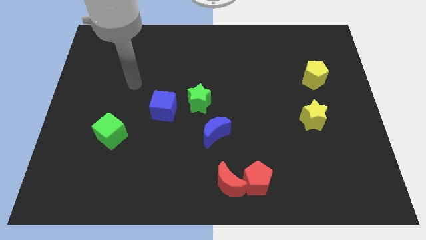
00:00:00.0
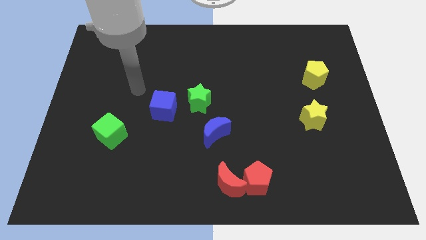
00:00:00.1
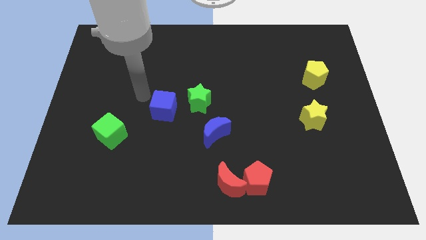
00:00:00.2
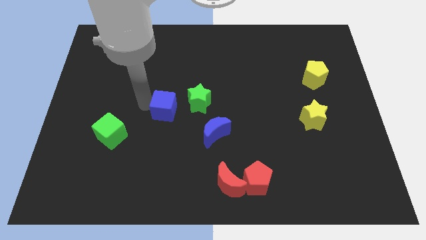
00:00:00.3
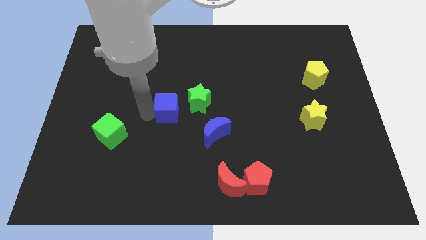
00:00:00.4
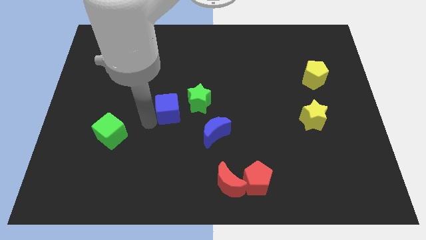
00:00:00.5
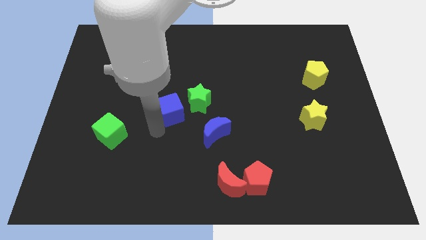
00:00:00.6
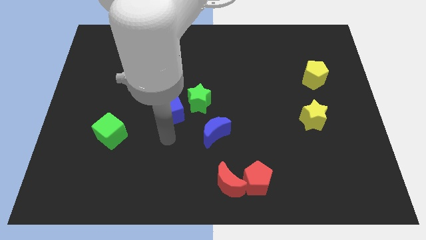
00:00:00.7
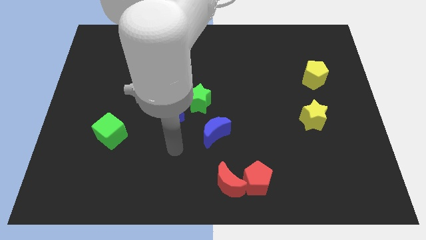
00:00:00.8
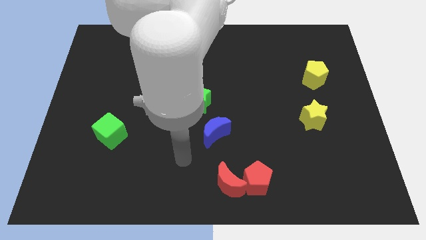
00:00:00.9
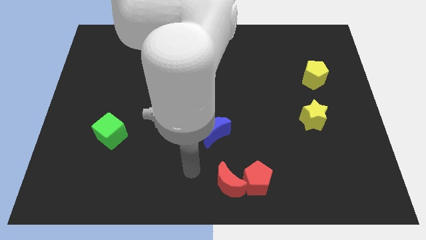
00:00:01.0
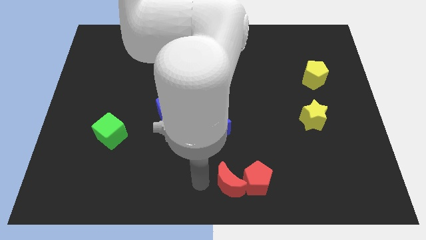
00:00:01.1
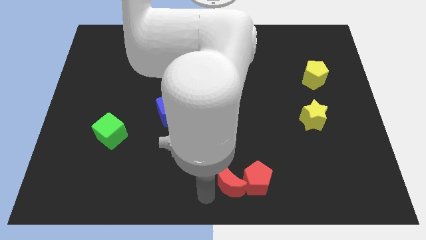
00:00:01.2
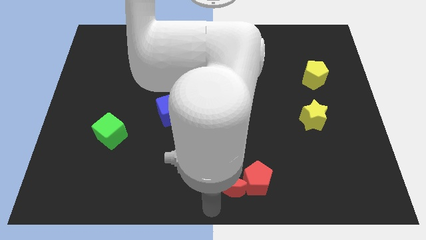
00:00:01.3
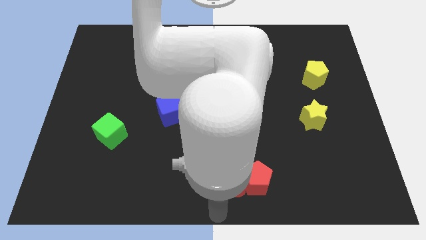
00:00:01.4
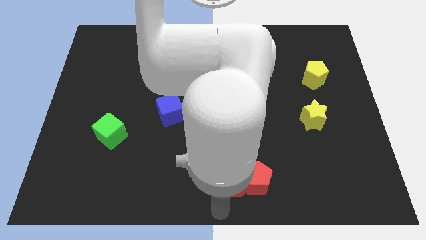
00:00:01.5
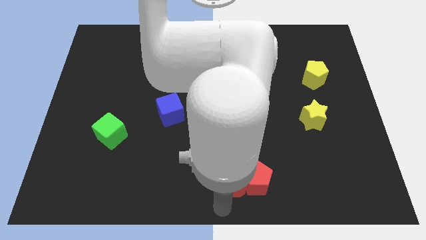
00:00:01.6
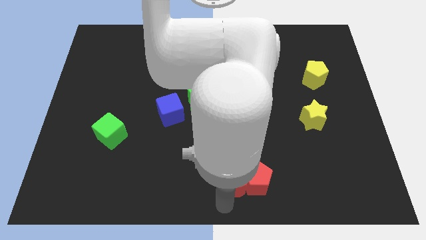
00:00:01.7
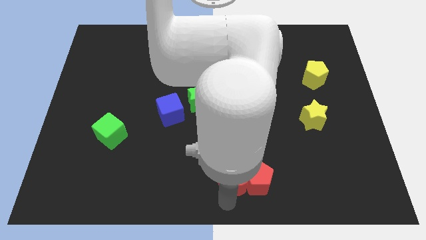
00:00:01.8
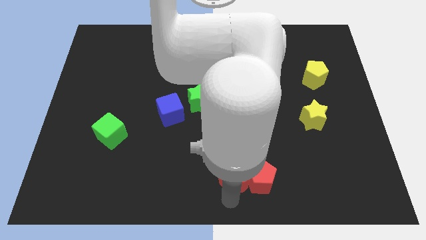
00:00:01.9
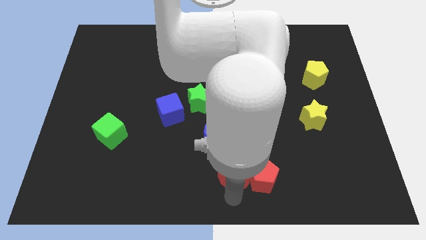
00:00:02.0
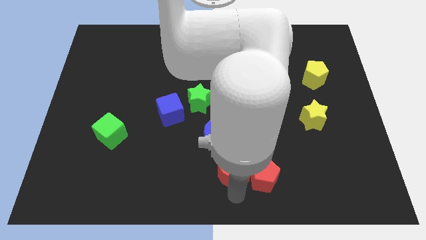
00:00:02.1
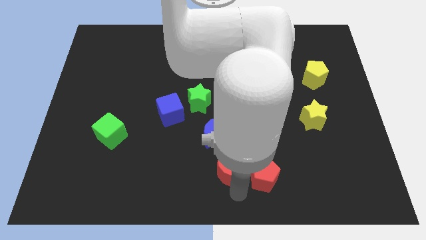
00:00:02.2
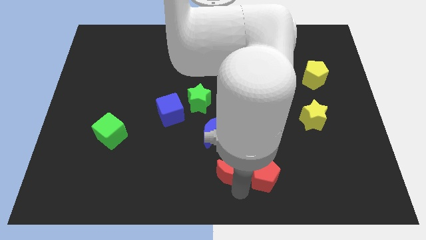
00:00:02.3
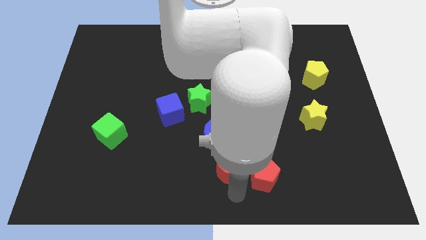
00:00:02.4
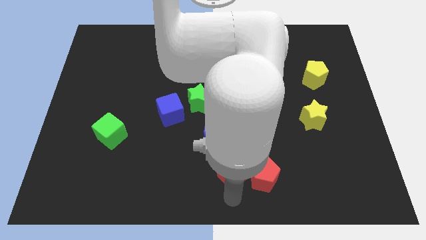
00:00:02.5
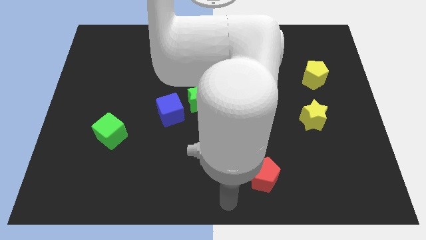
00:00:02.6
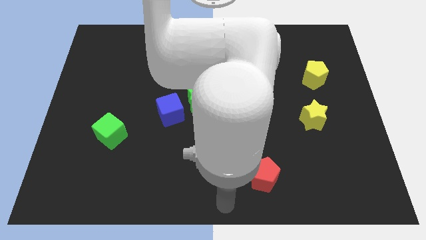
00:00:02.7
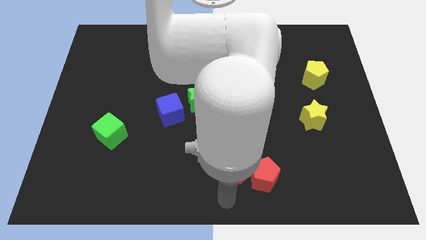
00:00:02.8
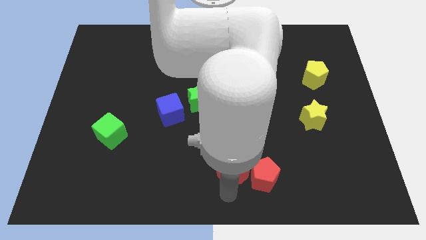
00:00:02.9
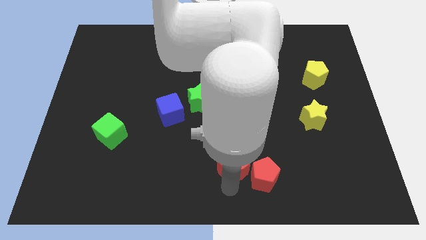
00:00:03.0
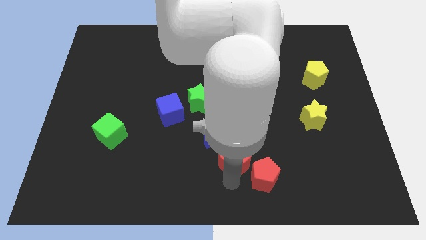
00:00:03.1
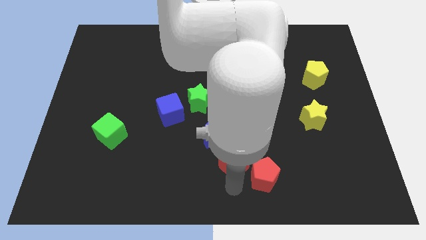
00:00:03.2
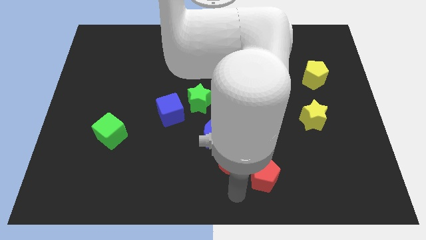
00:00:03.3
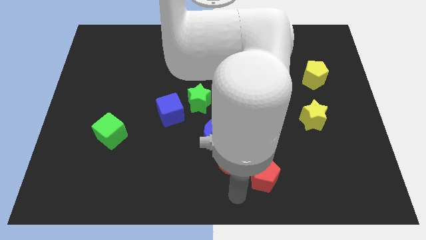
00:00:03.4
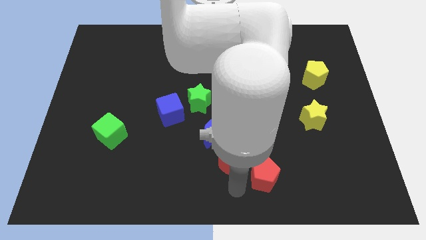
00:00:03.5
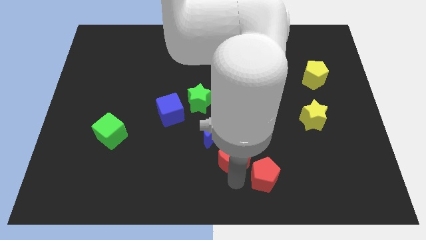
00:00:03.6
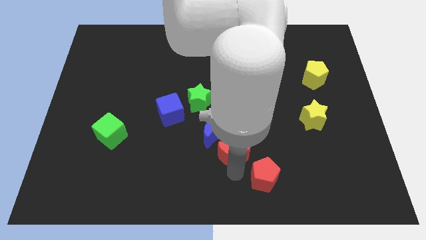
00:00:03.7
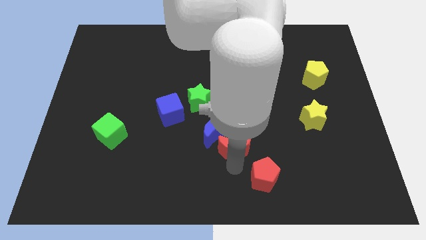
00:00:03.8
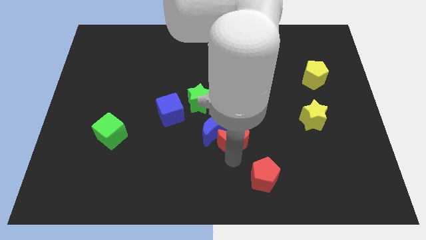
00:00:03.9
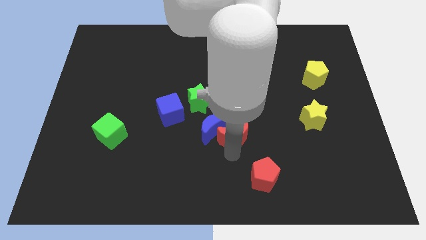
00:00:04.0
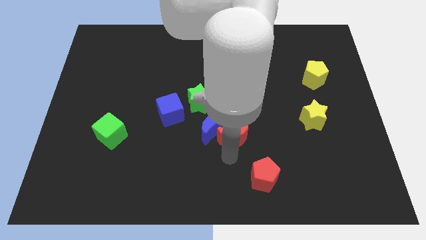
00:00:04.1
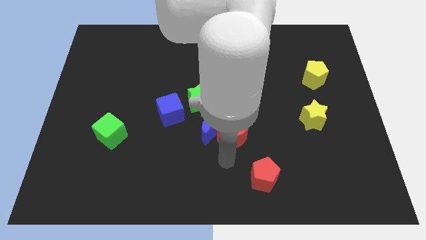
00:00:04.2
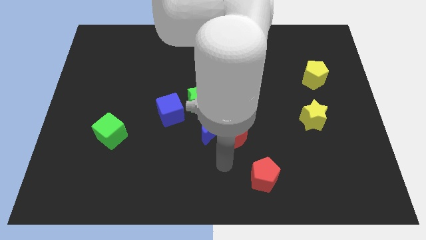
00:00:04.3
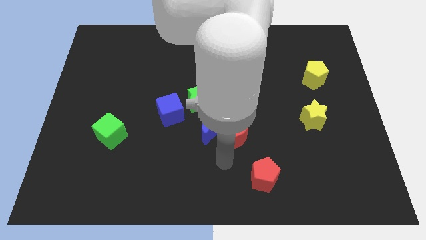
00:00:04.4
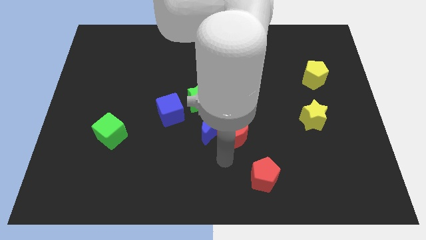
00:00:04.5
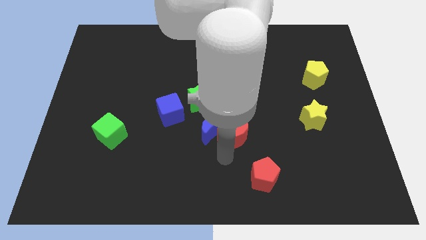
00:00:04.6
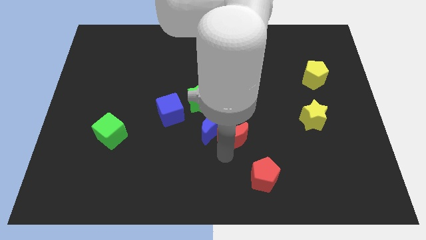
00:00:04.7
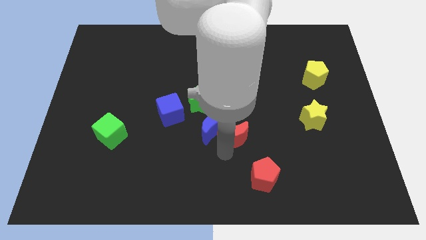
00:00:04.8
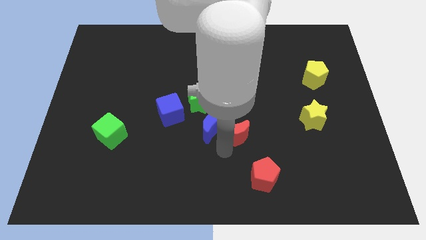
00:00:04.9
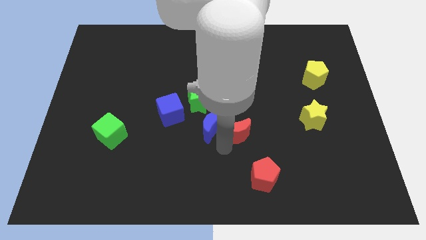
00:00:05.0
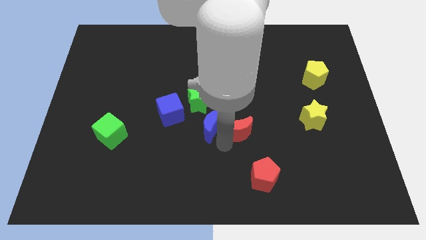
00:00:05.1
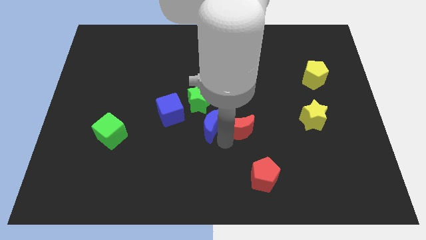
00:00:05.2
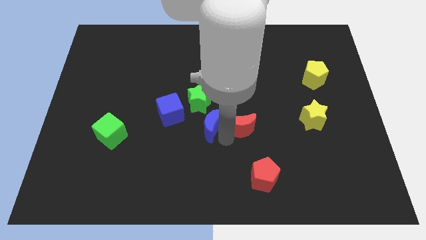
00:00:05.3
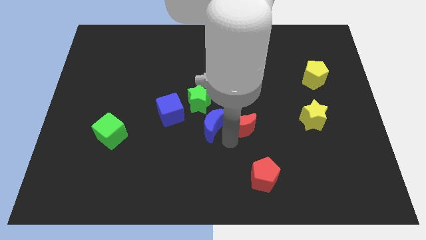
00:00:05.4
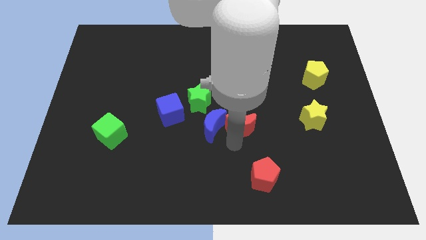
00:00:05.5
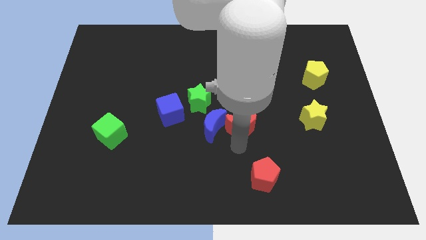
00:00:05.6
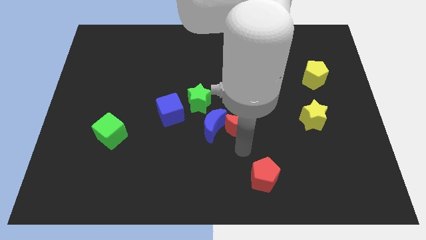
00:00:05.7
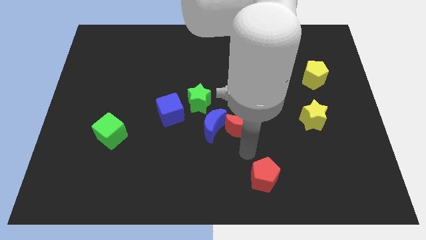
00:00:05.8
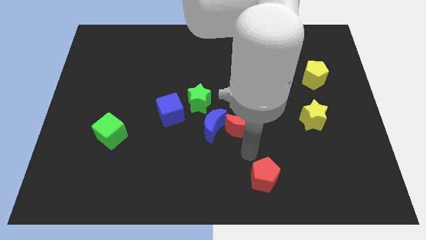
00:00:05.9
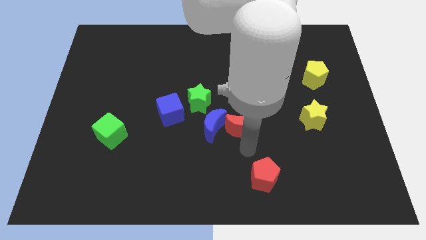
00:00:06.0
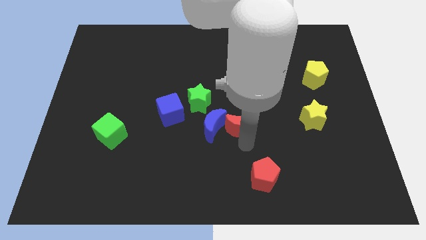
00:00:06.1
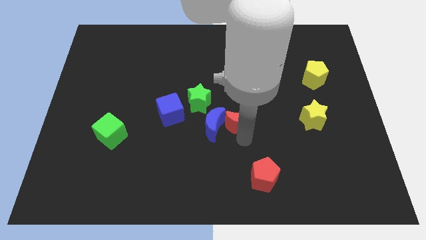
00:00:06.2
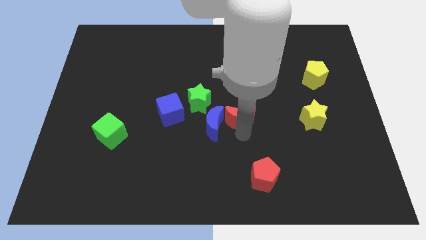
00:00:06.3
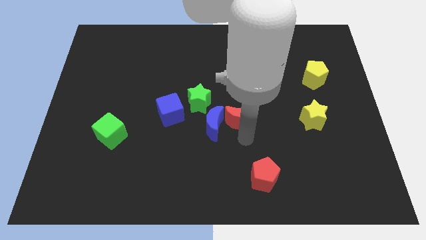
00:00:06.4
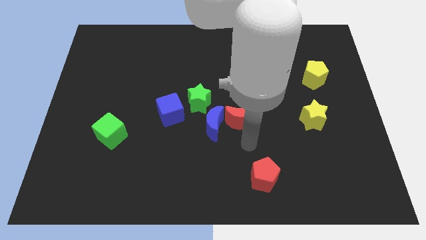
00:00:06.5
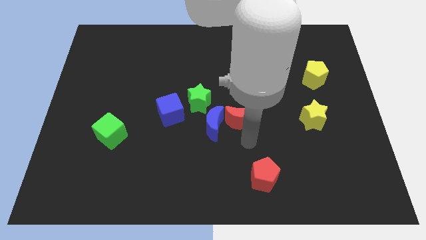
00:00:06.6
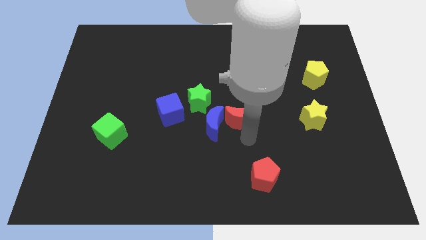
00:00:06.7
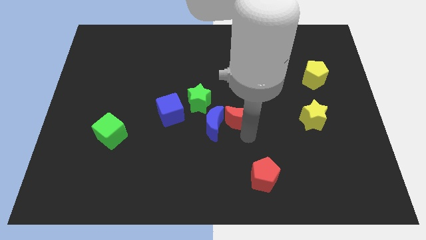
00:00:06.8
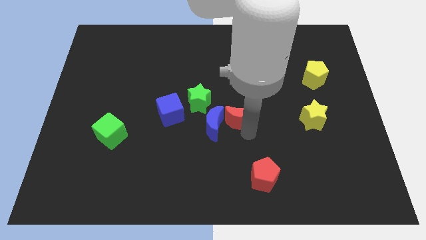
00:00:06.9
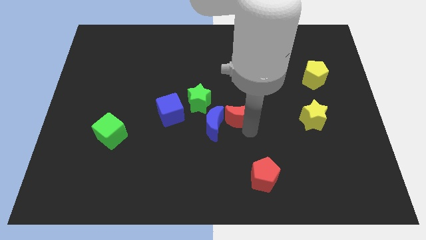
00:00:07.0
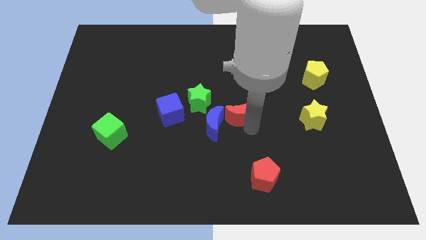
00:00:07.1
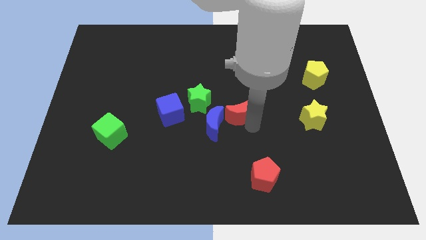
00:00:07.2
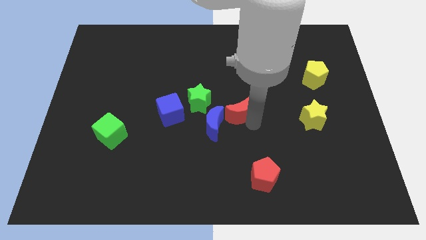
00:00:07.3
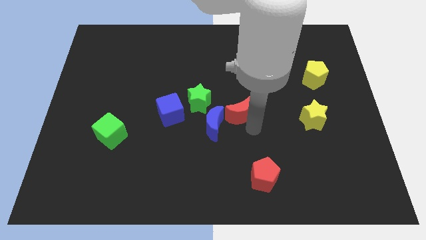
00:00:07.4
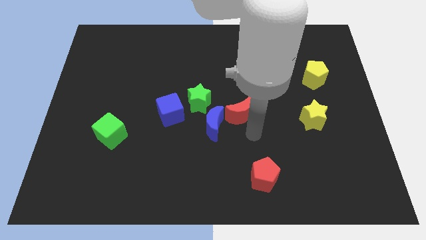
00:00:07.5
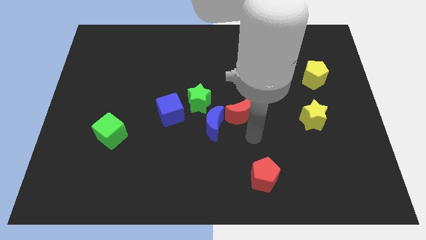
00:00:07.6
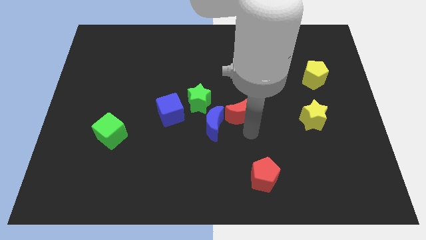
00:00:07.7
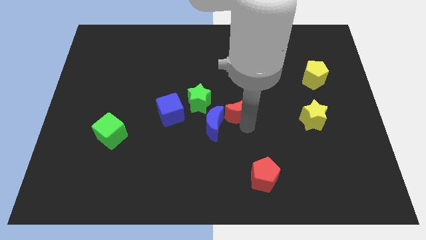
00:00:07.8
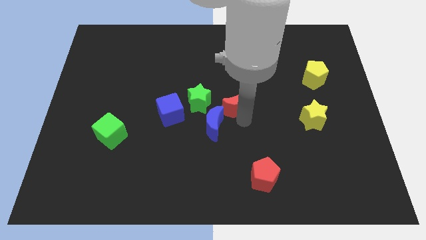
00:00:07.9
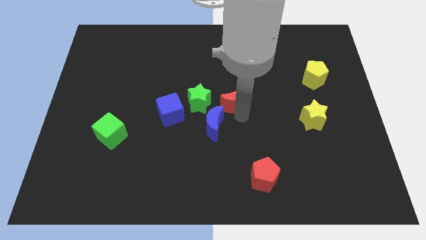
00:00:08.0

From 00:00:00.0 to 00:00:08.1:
move the red moon up
